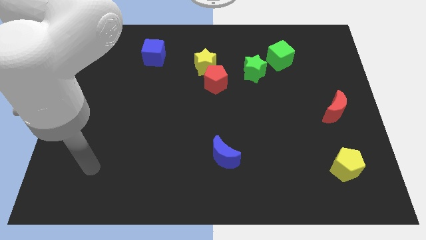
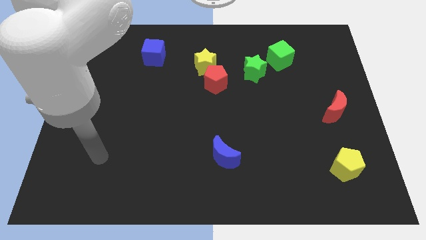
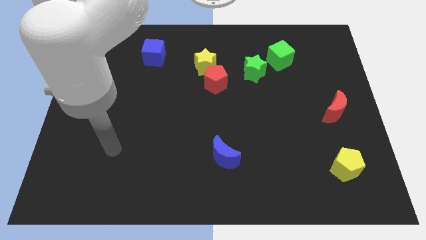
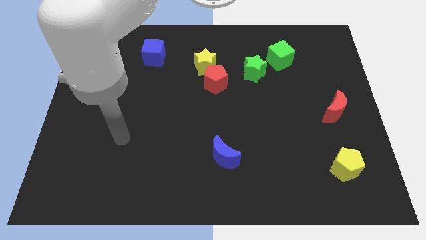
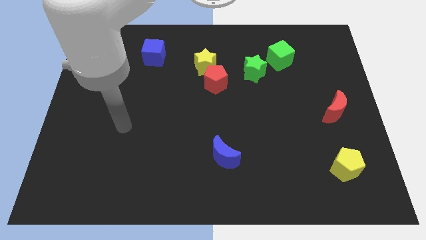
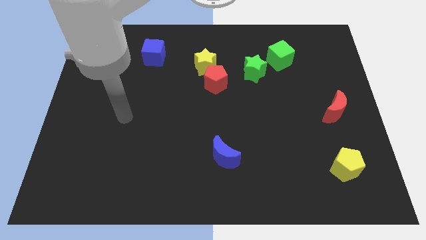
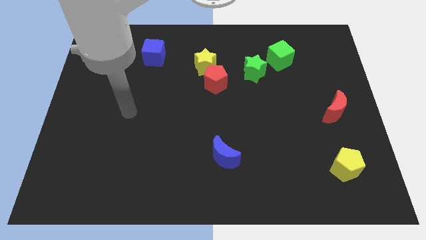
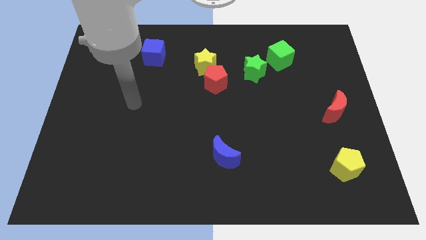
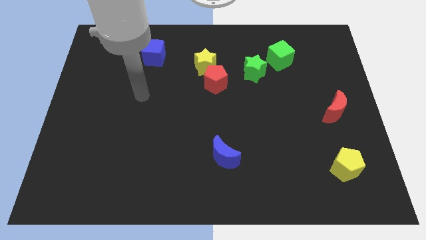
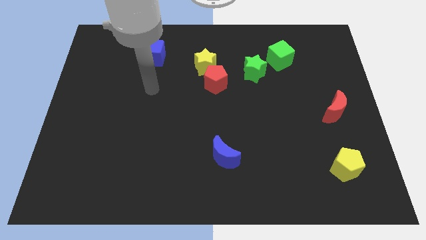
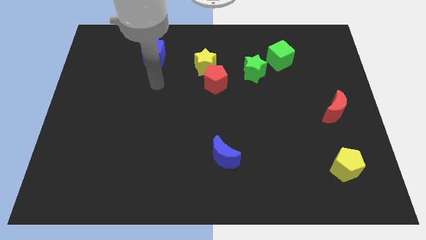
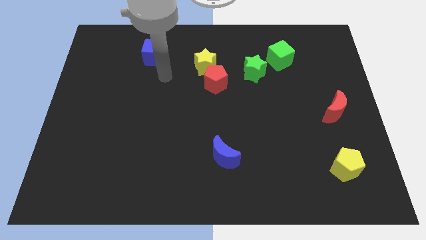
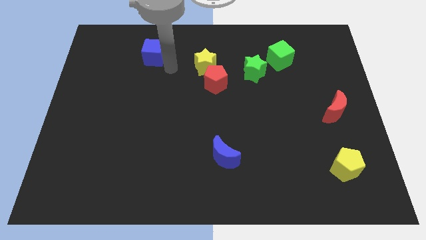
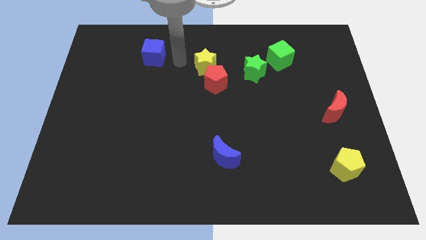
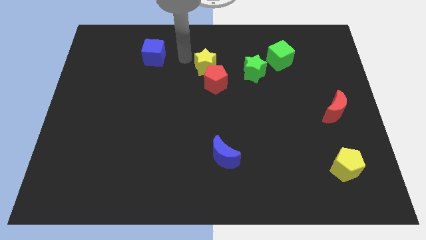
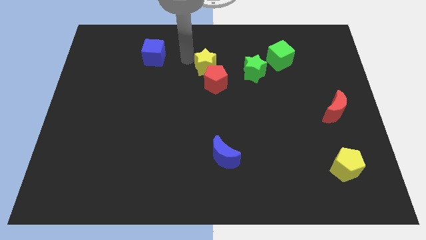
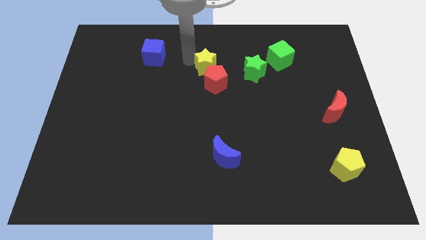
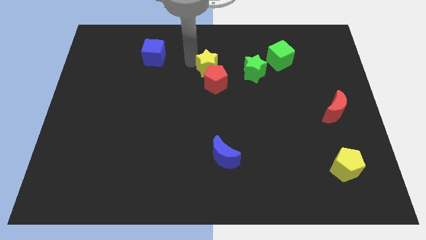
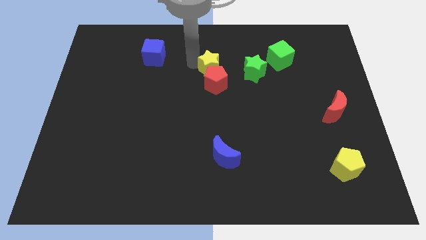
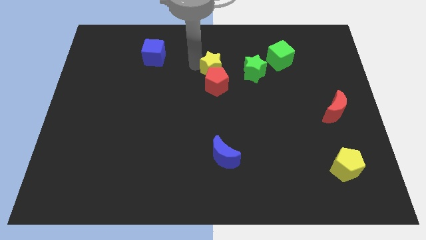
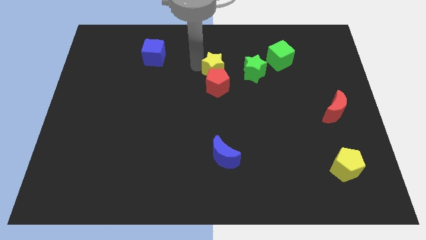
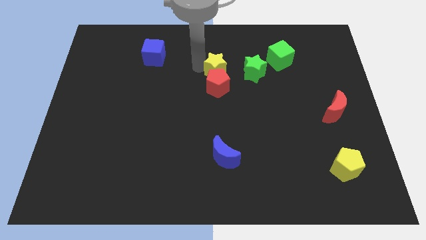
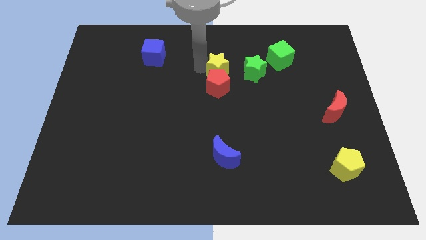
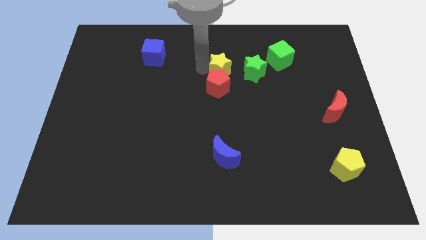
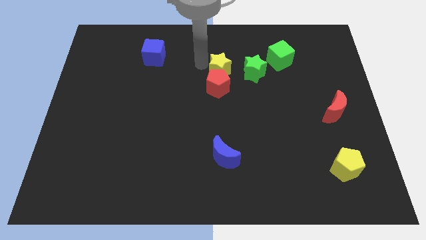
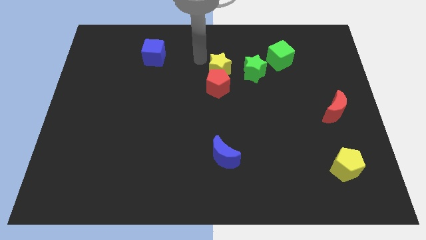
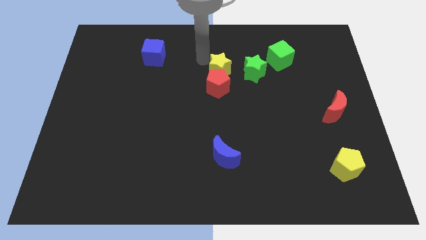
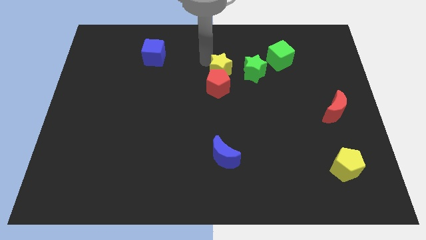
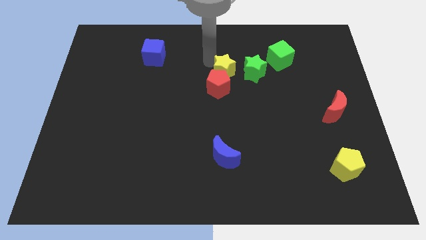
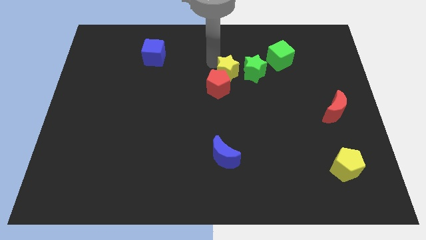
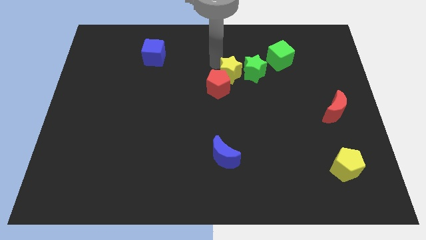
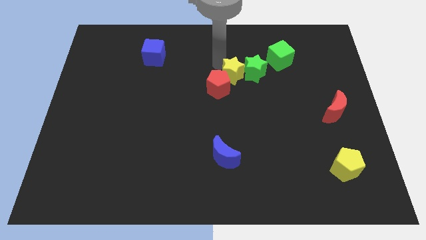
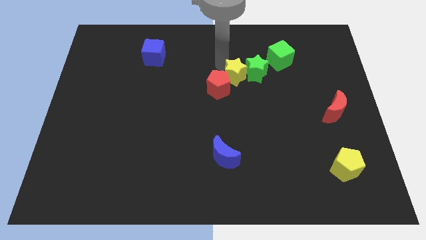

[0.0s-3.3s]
move the yellow star a little downwards and to the right

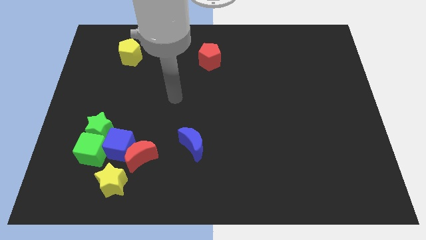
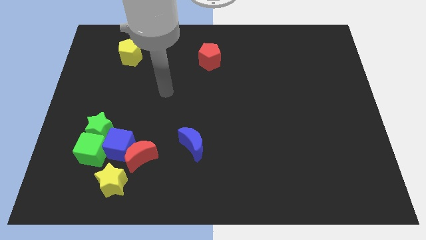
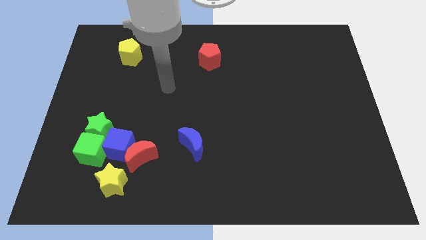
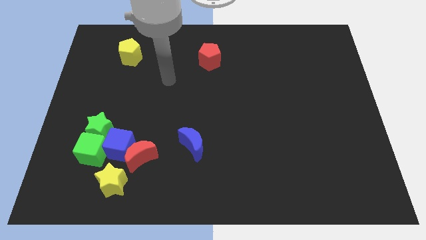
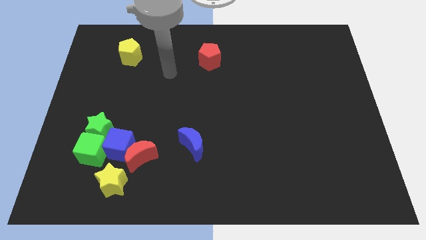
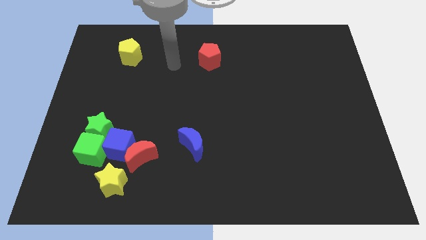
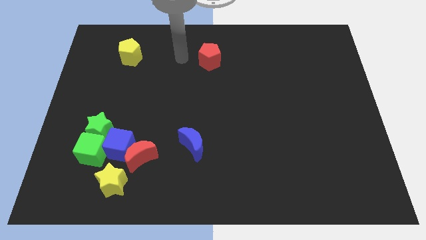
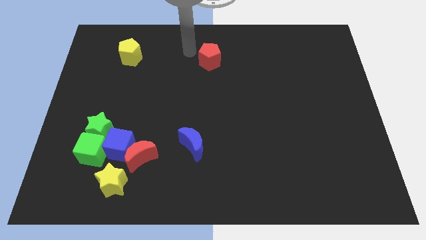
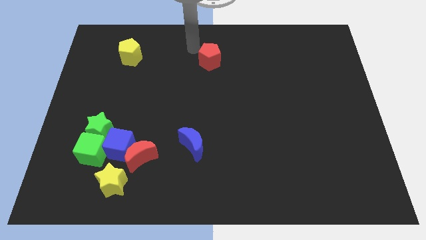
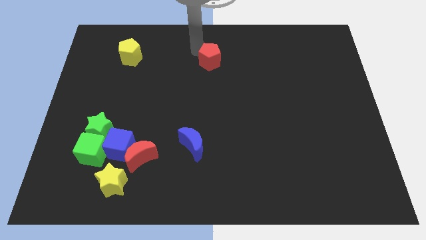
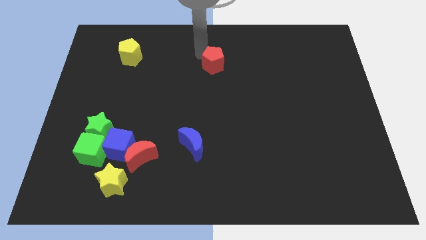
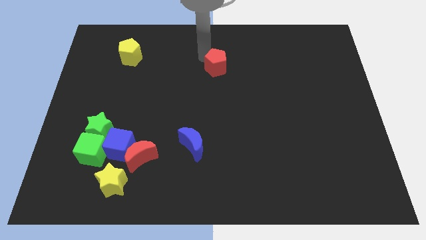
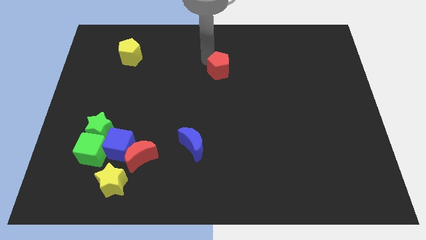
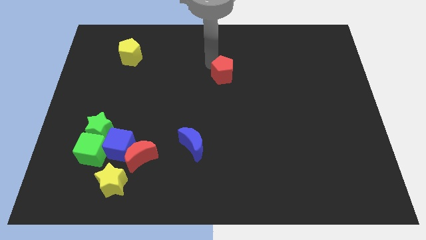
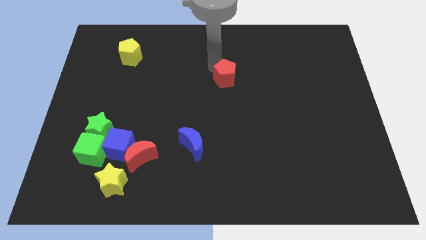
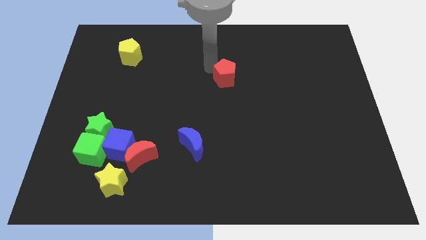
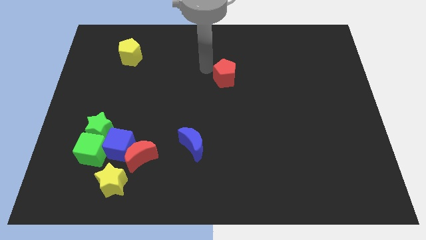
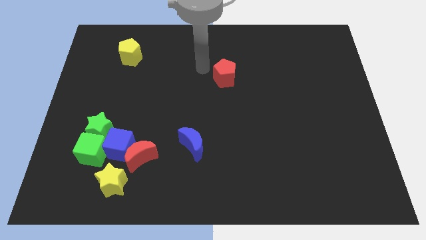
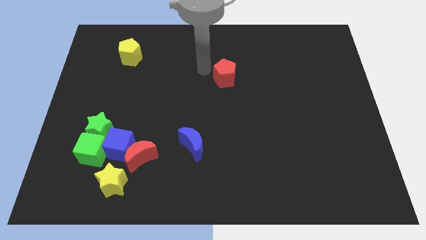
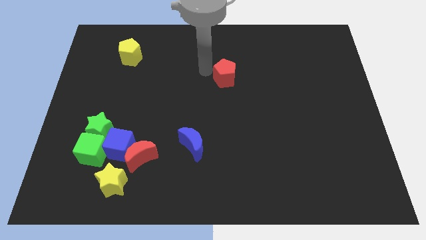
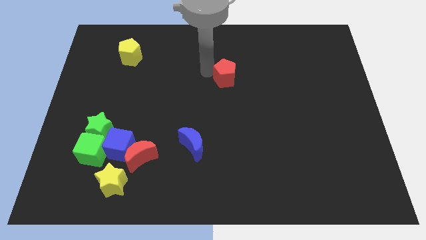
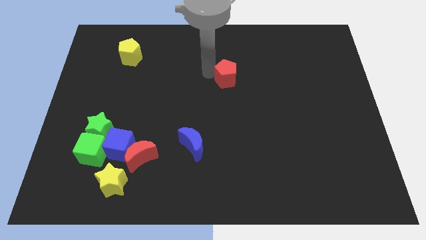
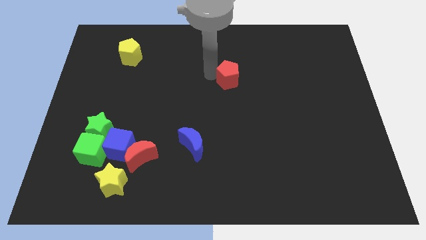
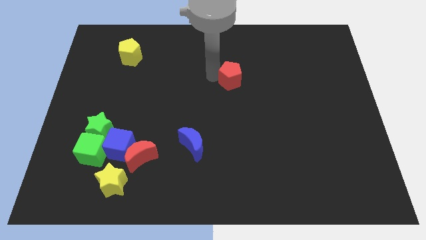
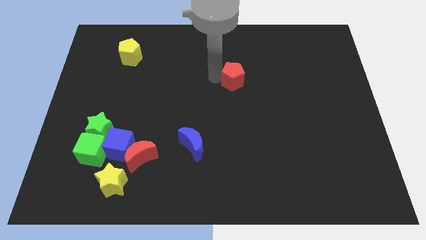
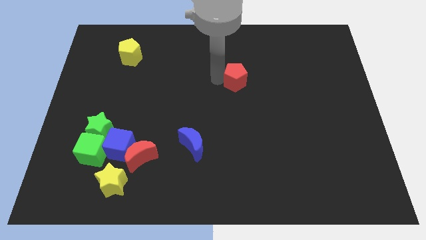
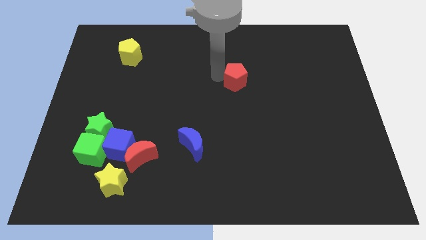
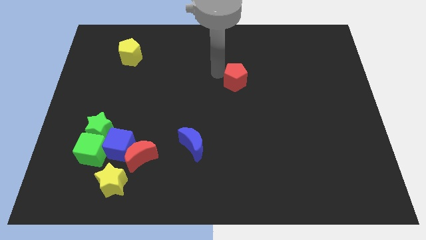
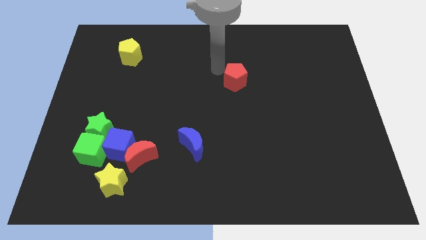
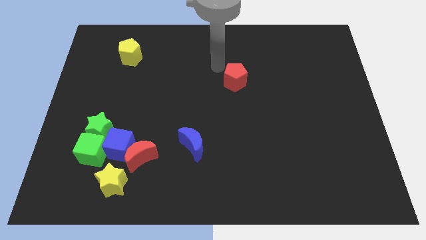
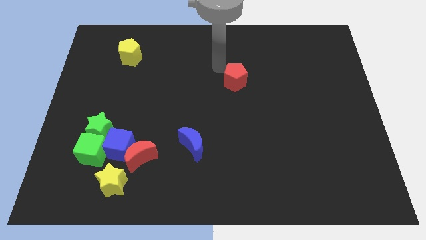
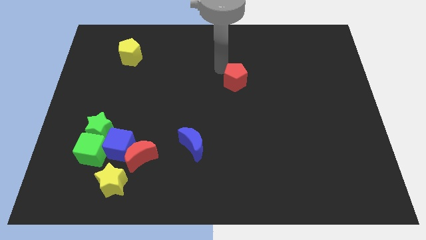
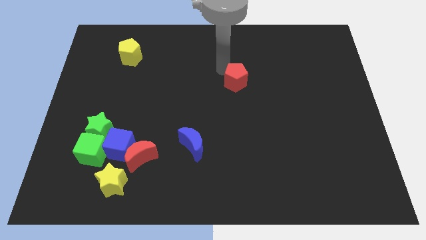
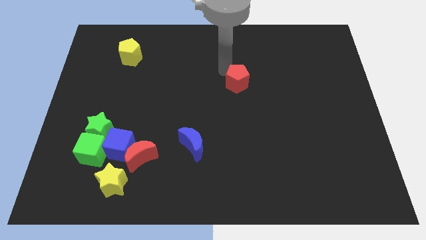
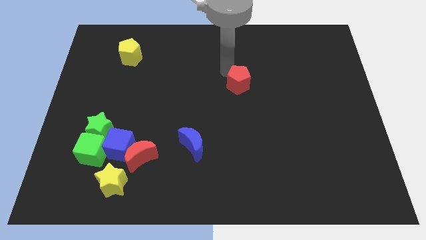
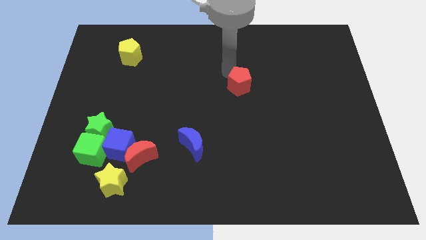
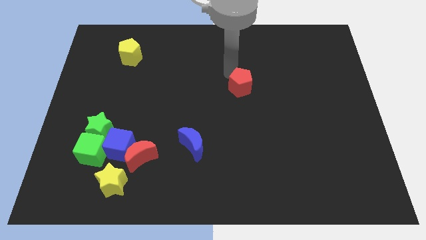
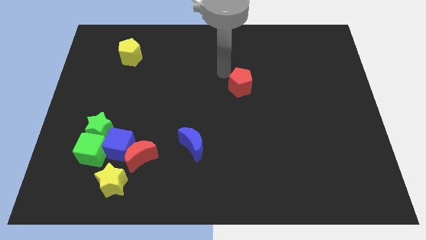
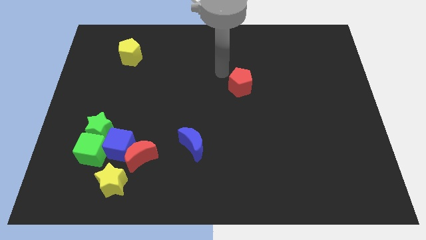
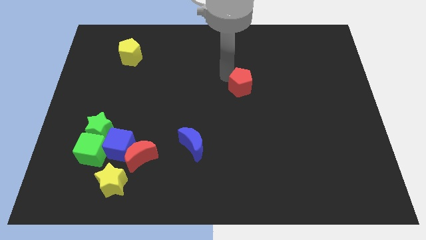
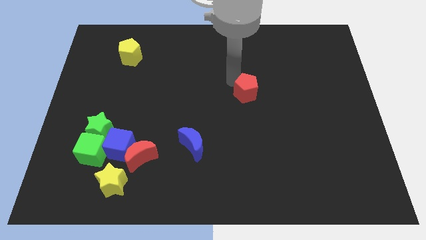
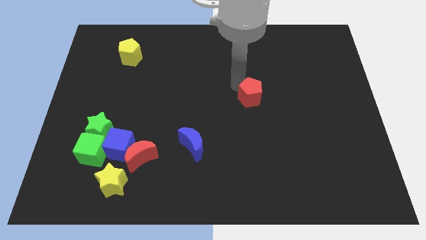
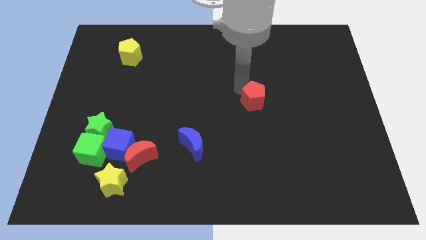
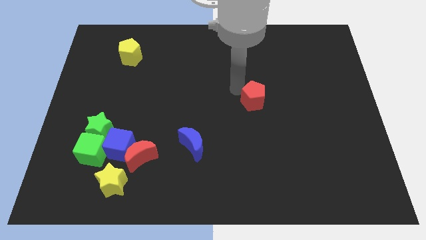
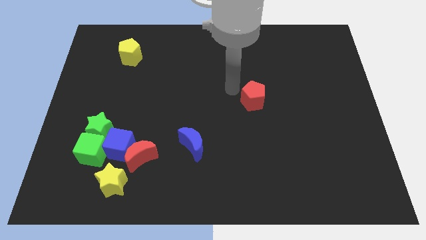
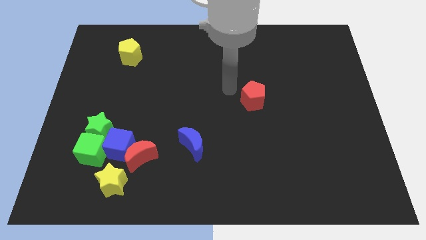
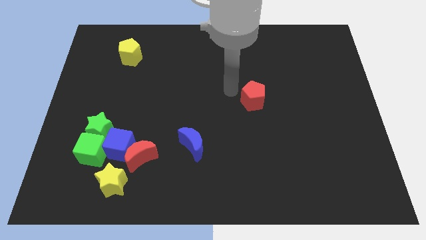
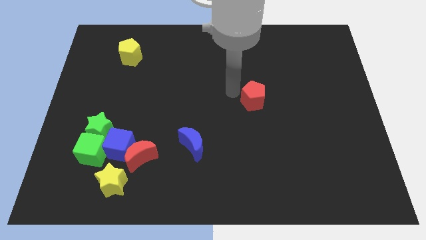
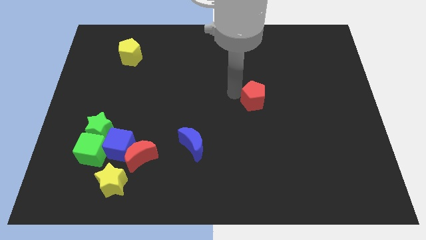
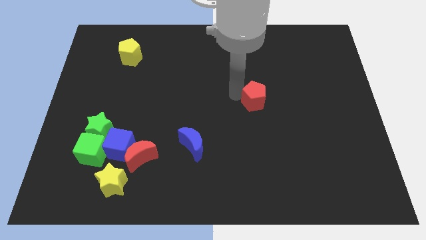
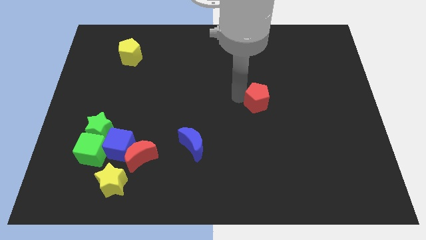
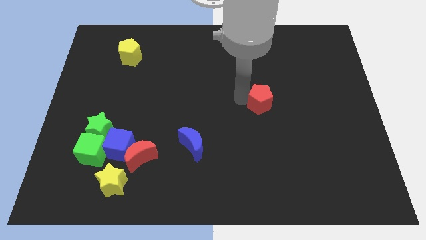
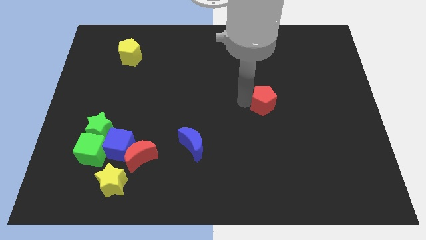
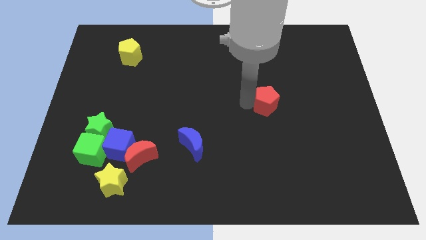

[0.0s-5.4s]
push the red pentagon downwards and then right
